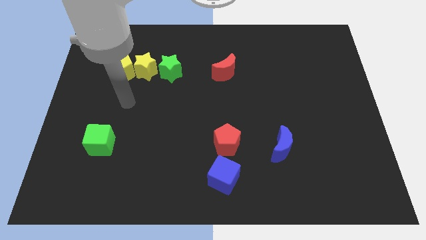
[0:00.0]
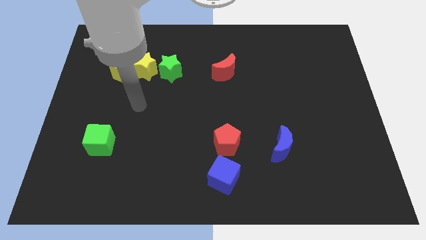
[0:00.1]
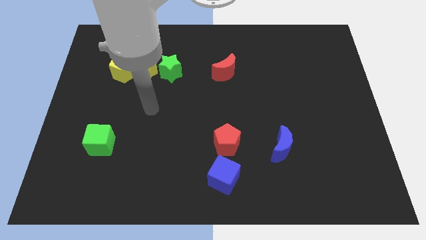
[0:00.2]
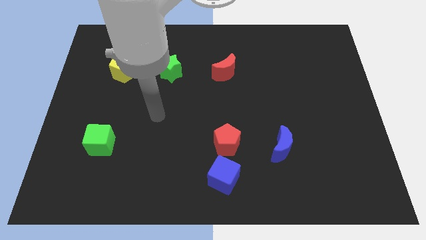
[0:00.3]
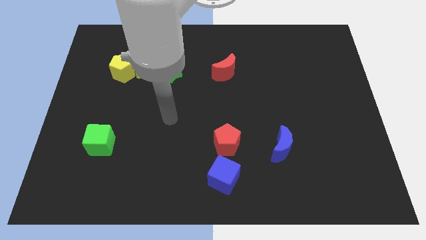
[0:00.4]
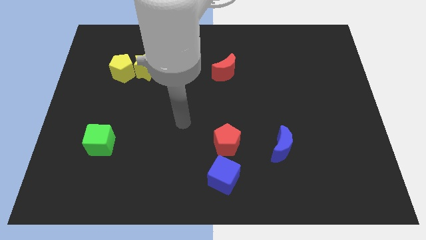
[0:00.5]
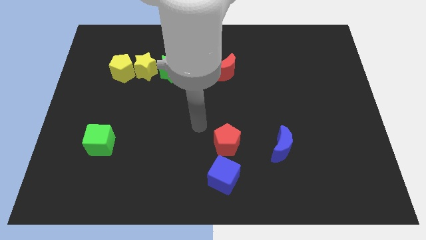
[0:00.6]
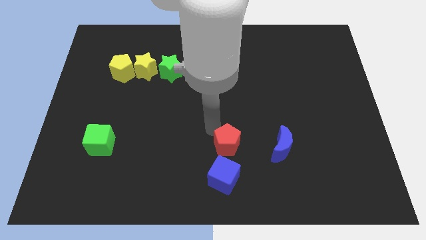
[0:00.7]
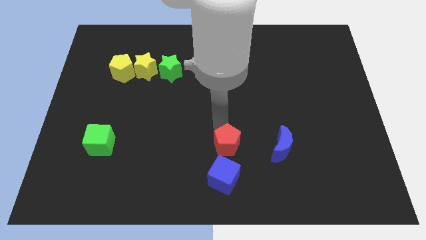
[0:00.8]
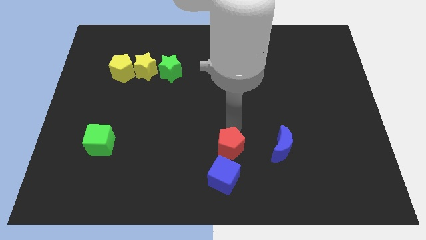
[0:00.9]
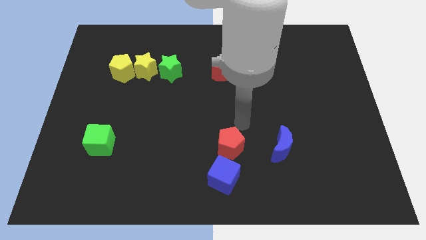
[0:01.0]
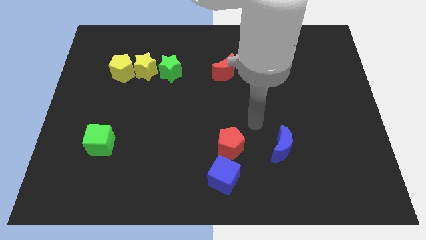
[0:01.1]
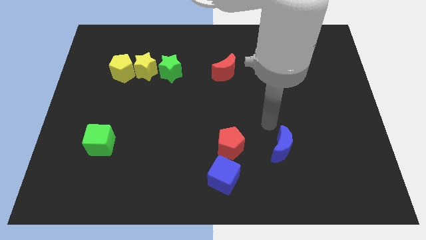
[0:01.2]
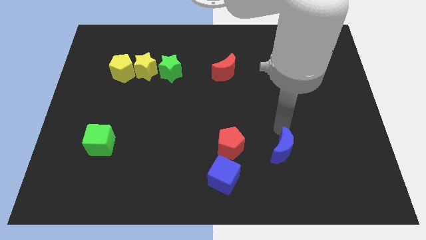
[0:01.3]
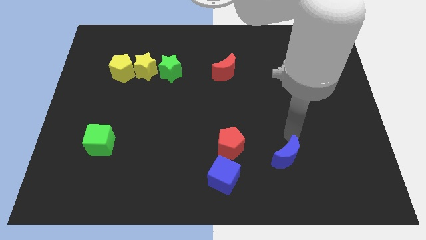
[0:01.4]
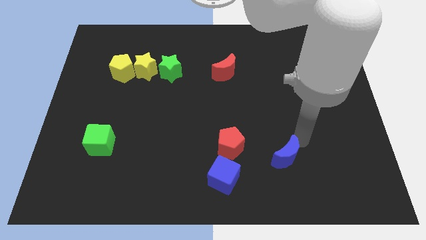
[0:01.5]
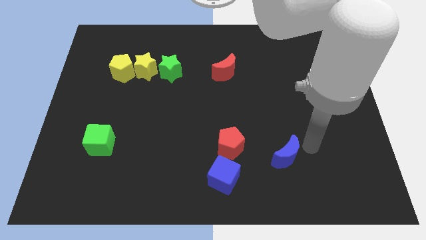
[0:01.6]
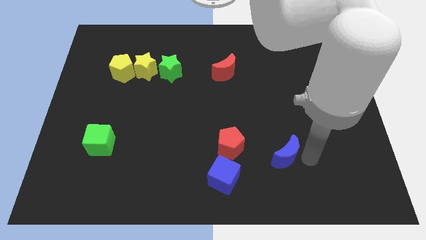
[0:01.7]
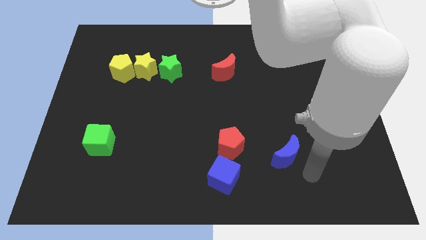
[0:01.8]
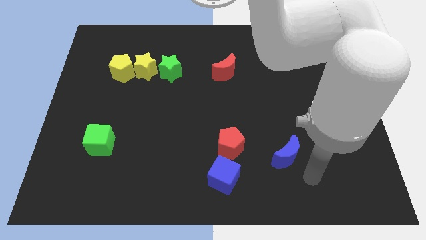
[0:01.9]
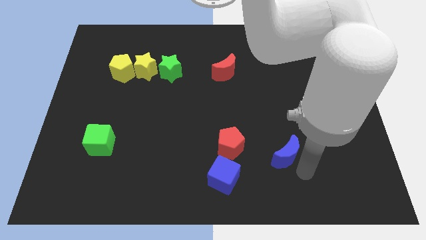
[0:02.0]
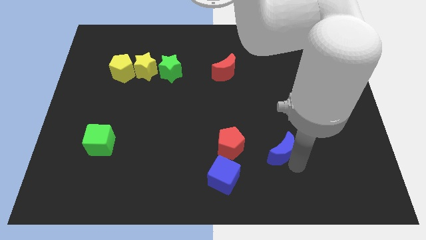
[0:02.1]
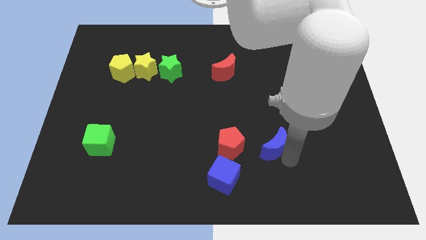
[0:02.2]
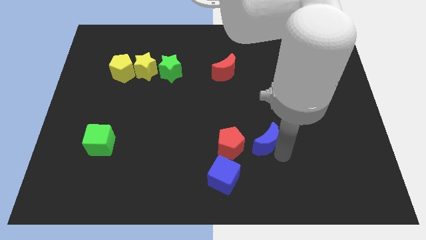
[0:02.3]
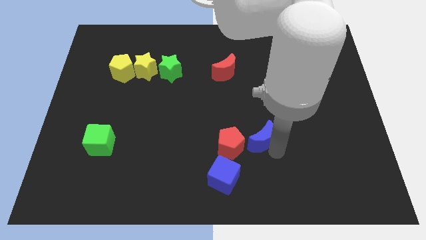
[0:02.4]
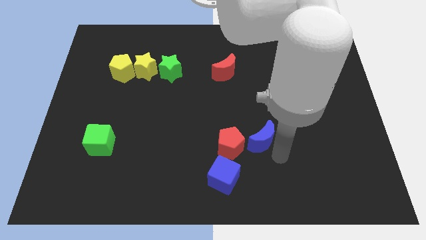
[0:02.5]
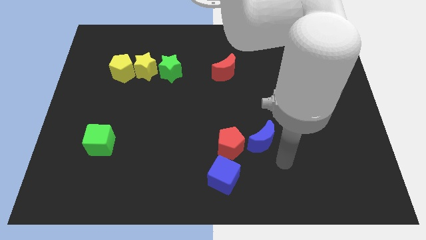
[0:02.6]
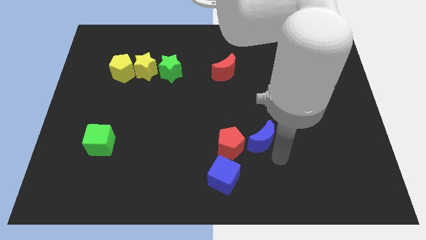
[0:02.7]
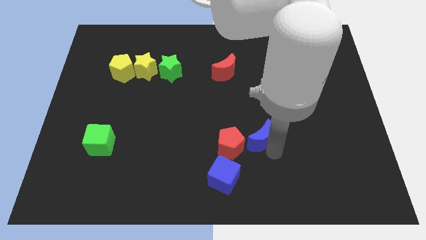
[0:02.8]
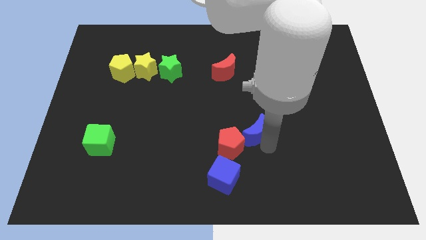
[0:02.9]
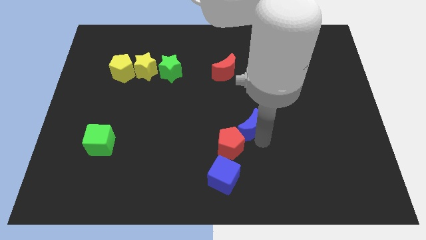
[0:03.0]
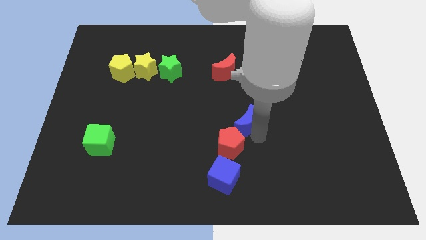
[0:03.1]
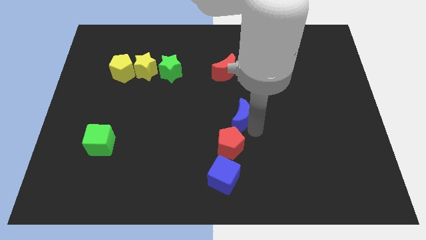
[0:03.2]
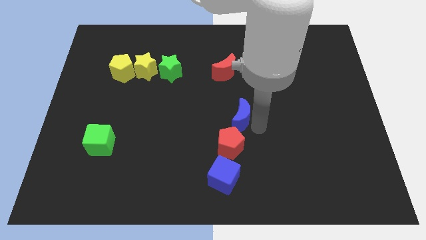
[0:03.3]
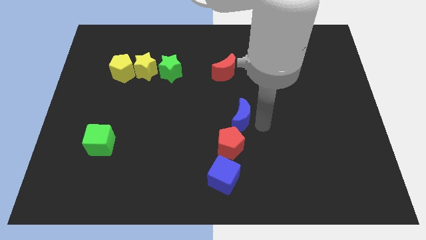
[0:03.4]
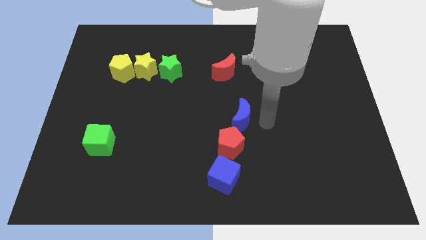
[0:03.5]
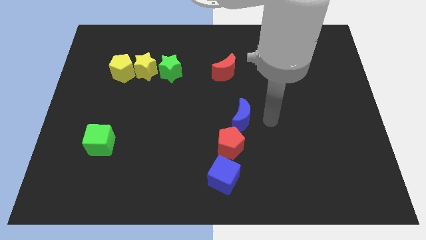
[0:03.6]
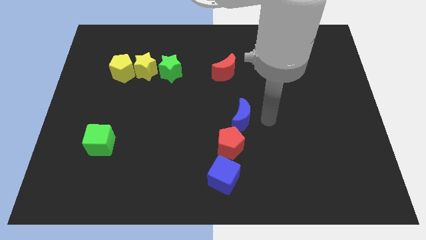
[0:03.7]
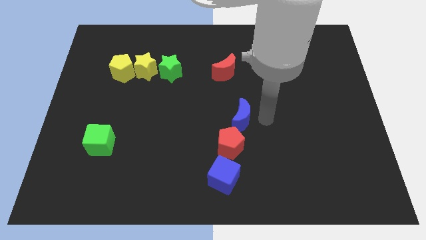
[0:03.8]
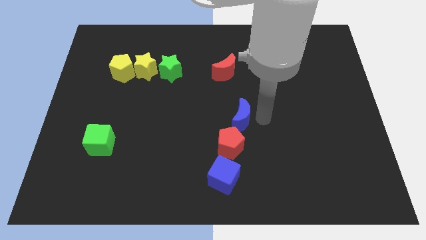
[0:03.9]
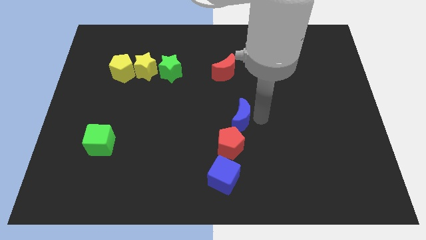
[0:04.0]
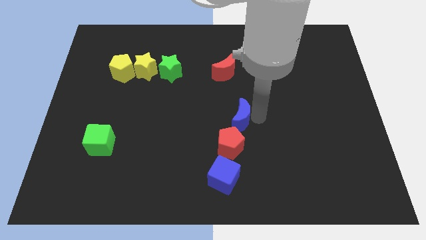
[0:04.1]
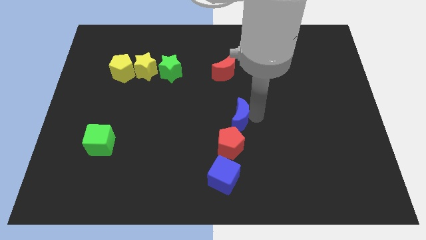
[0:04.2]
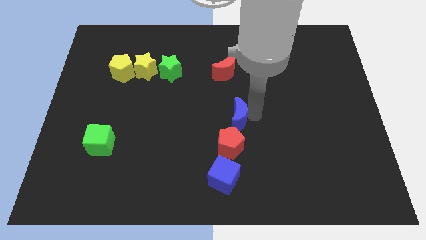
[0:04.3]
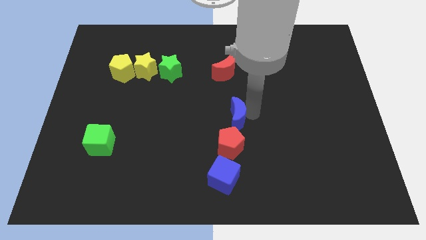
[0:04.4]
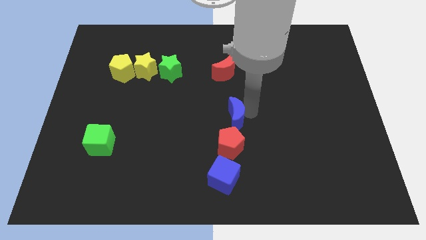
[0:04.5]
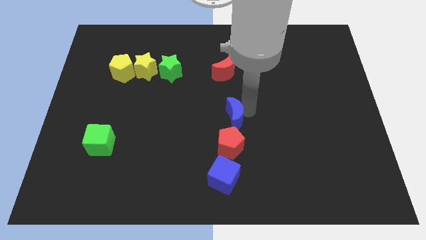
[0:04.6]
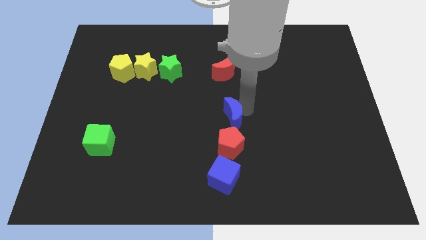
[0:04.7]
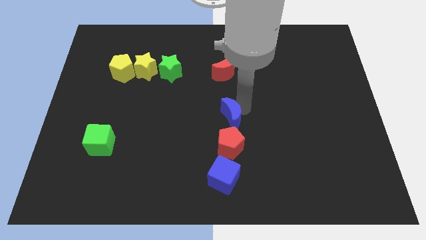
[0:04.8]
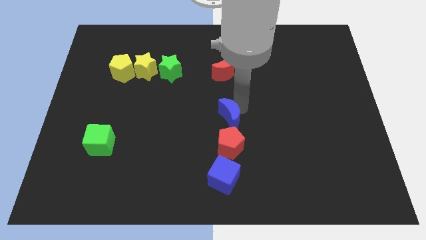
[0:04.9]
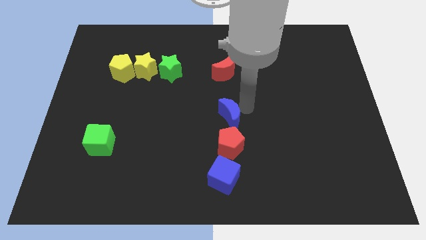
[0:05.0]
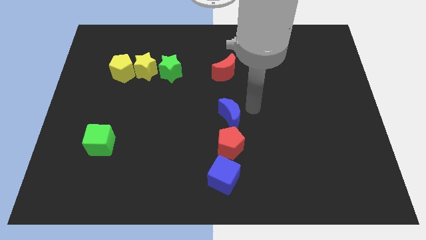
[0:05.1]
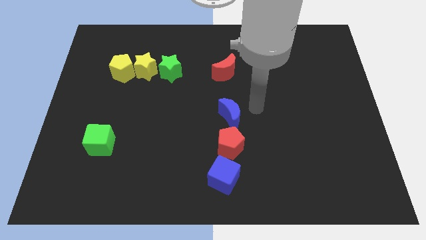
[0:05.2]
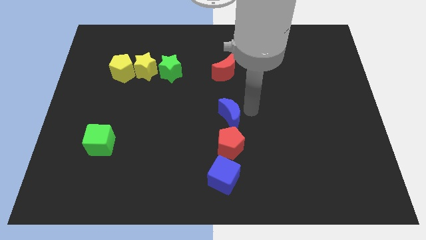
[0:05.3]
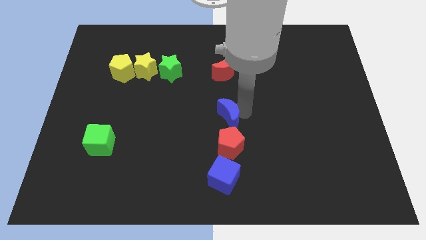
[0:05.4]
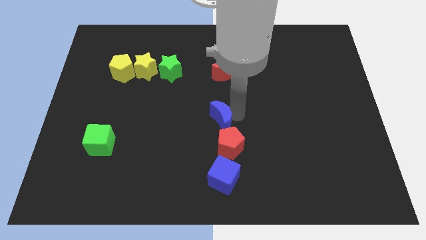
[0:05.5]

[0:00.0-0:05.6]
slide the blue moon to the top left of the red pentagon

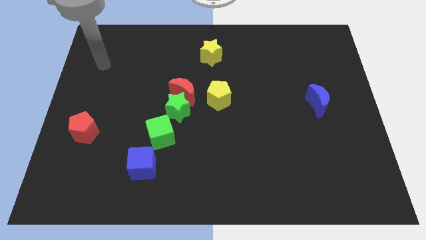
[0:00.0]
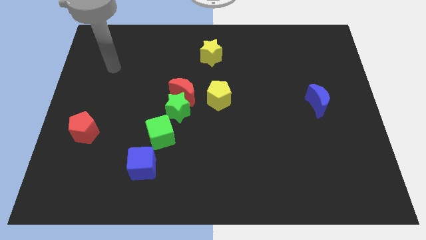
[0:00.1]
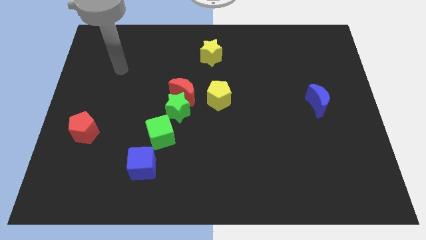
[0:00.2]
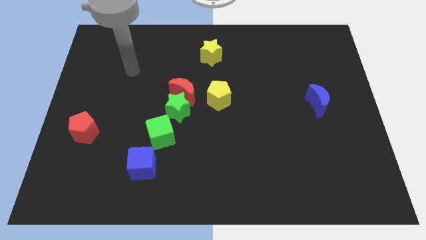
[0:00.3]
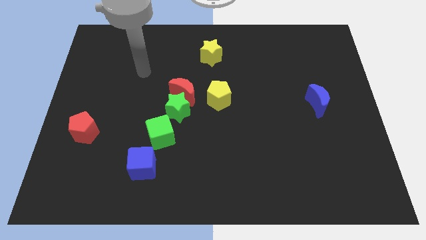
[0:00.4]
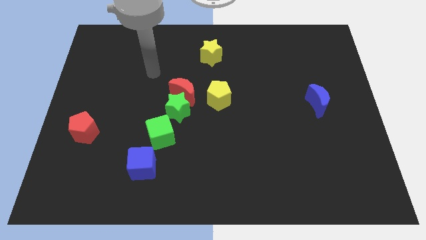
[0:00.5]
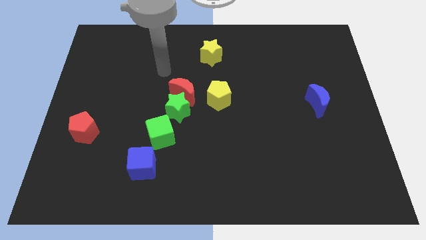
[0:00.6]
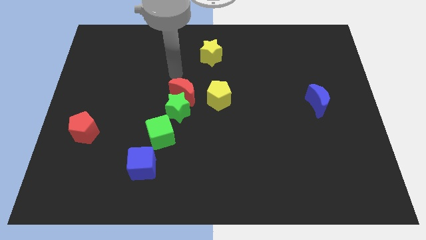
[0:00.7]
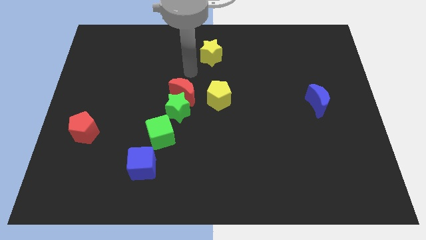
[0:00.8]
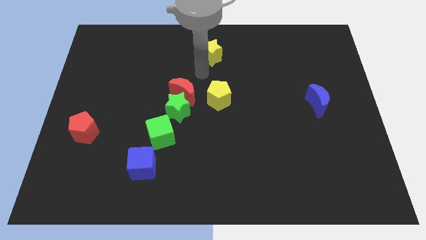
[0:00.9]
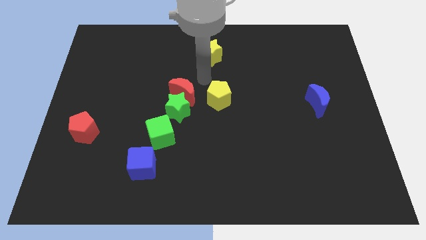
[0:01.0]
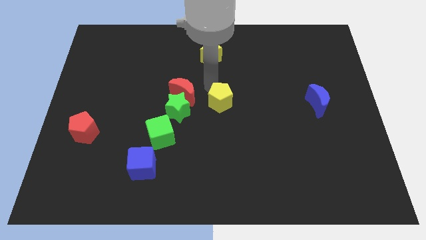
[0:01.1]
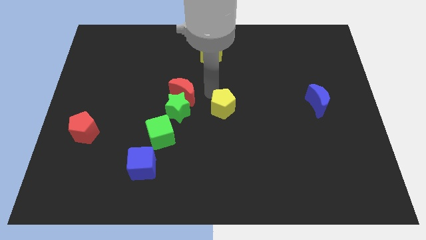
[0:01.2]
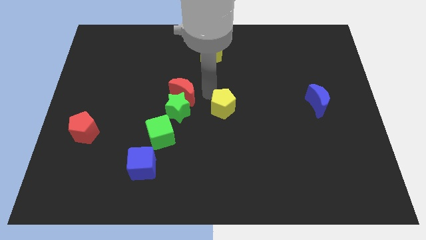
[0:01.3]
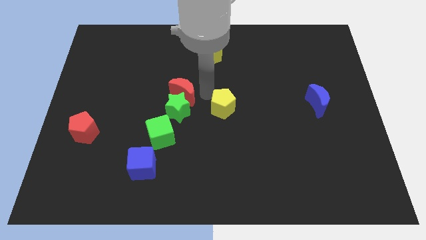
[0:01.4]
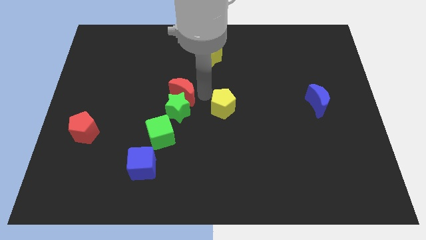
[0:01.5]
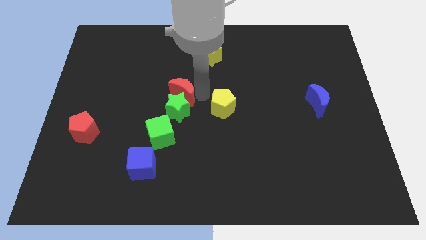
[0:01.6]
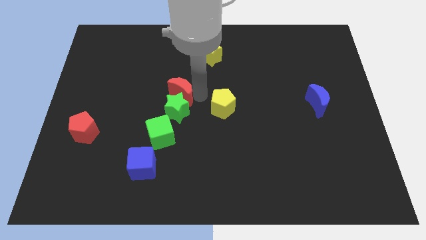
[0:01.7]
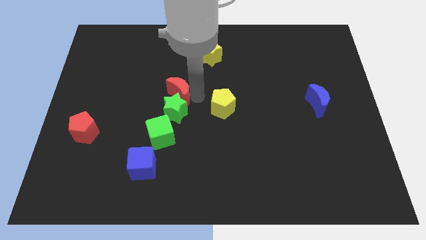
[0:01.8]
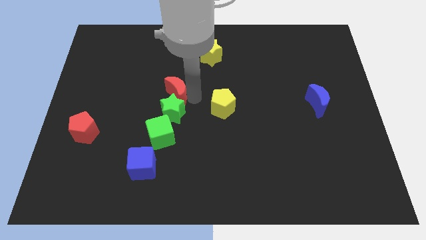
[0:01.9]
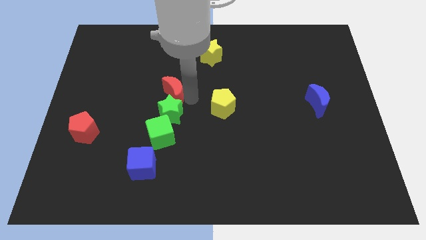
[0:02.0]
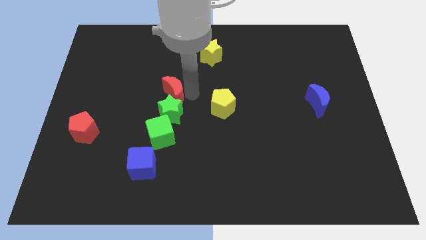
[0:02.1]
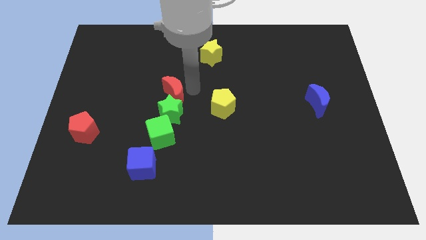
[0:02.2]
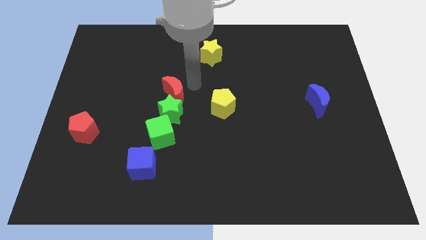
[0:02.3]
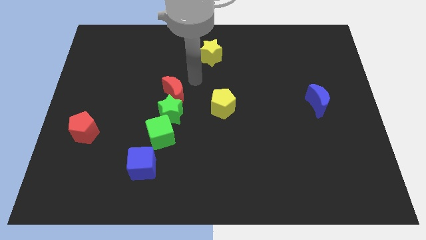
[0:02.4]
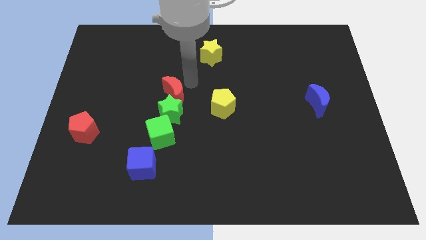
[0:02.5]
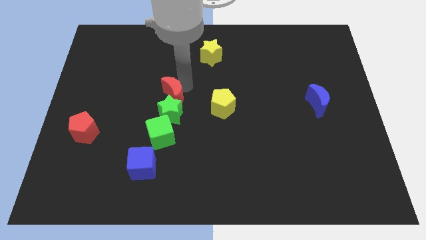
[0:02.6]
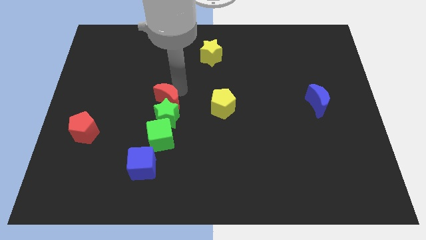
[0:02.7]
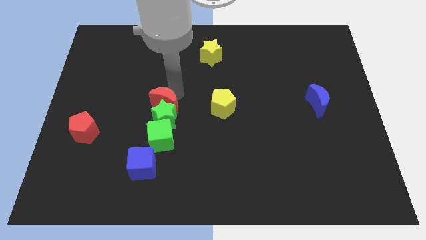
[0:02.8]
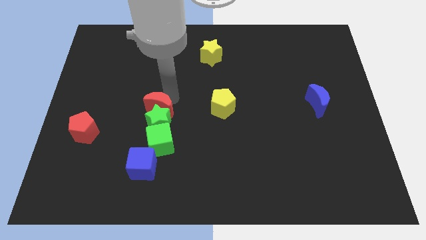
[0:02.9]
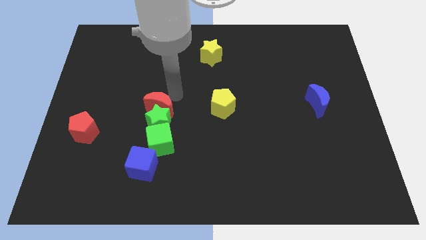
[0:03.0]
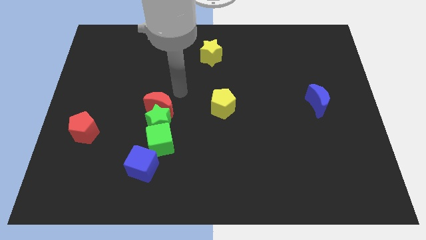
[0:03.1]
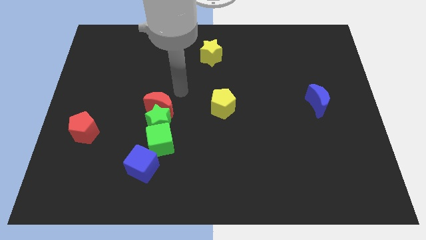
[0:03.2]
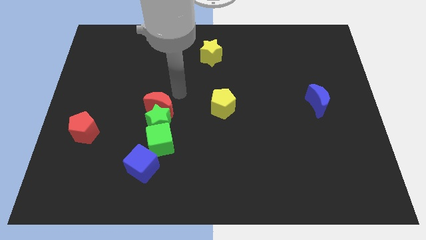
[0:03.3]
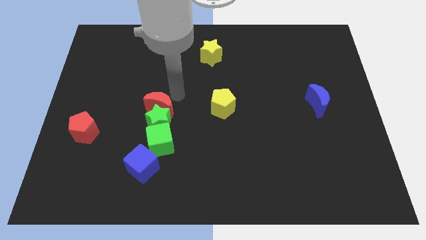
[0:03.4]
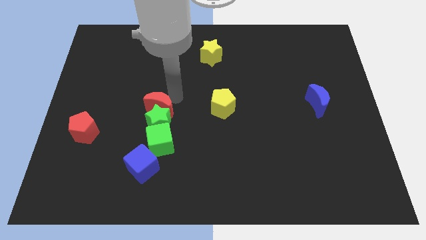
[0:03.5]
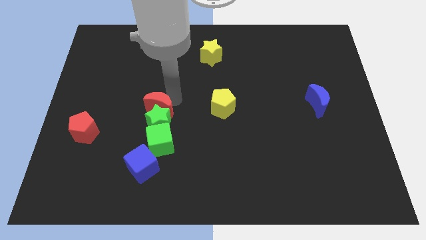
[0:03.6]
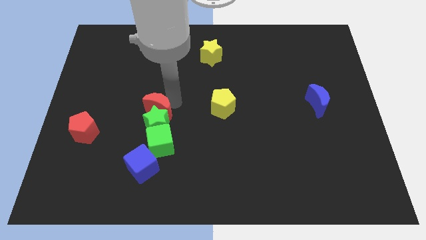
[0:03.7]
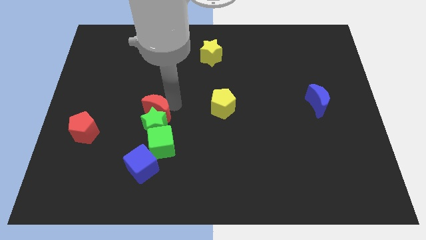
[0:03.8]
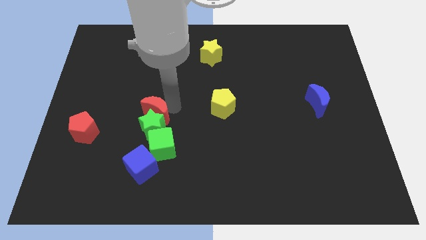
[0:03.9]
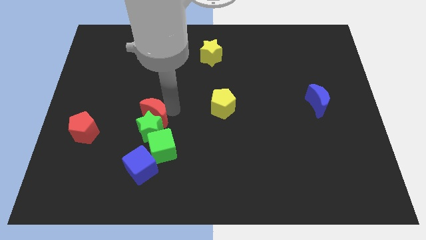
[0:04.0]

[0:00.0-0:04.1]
push the red moon diagonally up and to the left of the green cube
